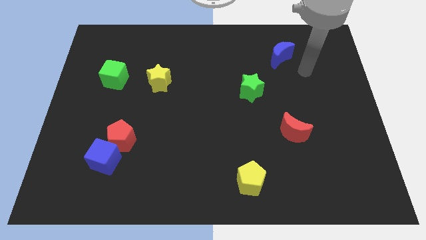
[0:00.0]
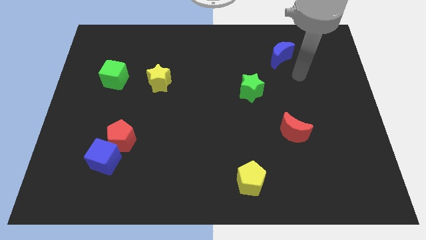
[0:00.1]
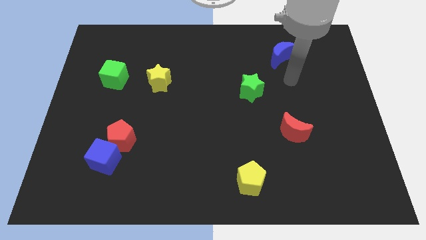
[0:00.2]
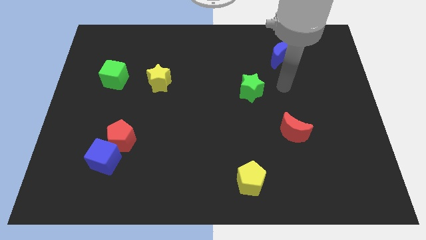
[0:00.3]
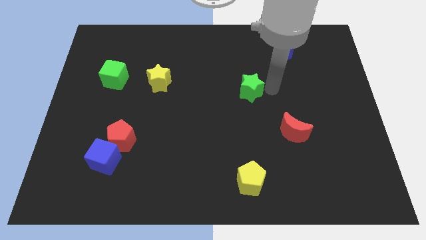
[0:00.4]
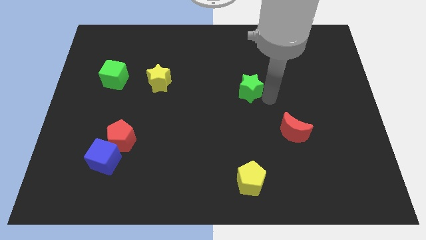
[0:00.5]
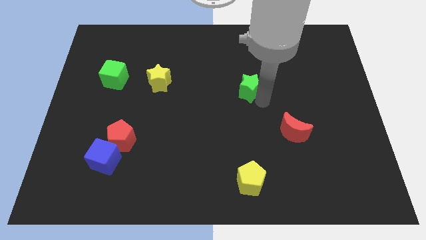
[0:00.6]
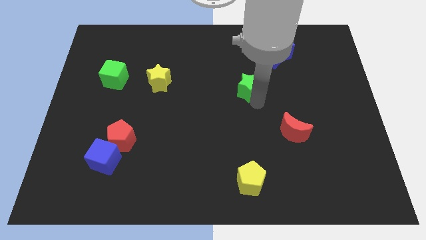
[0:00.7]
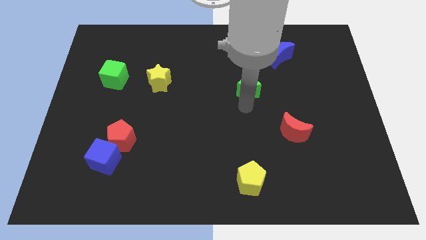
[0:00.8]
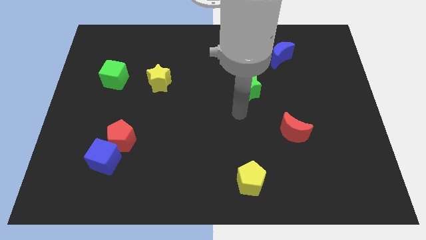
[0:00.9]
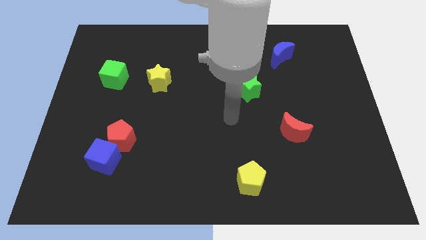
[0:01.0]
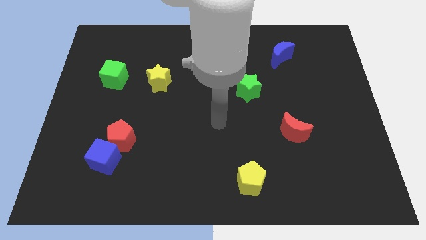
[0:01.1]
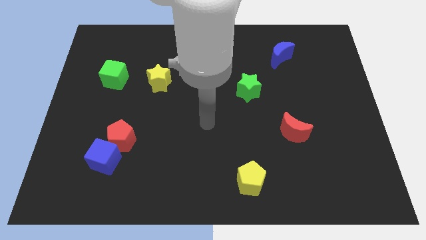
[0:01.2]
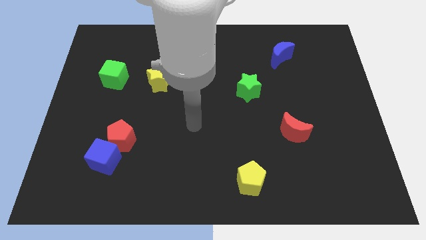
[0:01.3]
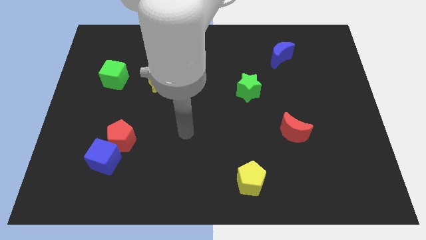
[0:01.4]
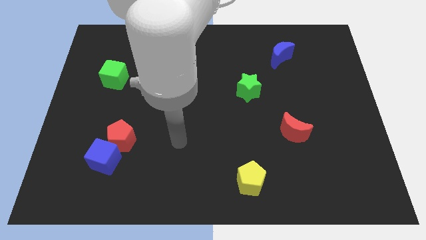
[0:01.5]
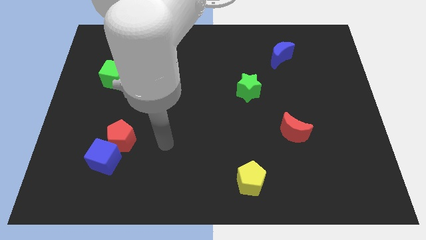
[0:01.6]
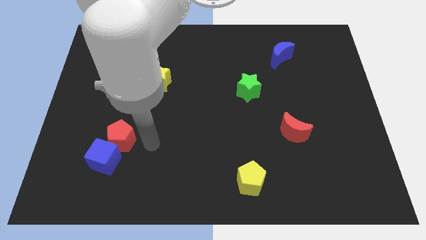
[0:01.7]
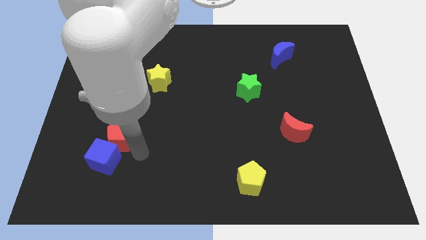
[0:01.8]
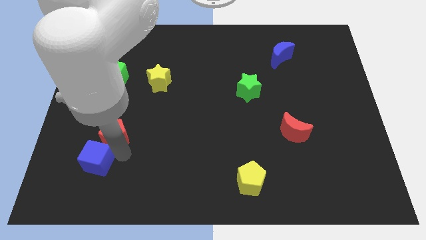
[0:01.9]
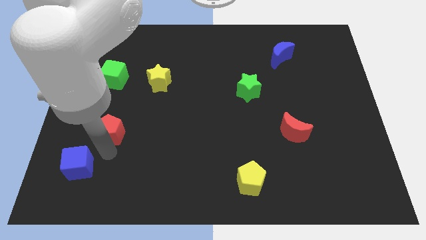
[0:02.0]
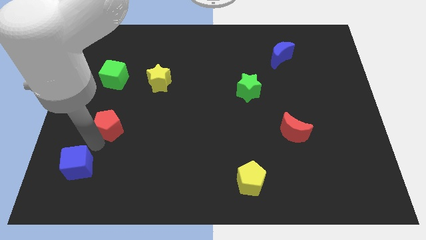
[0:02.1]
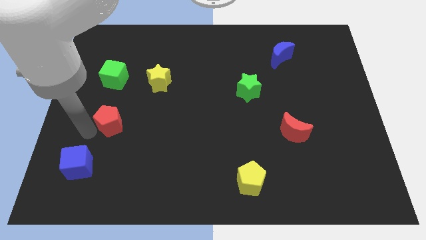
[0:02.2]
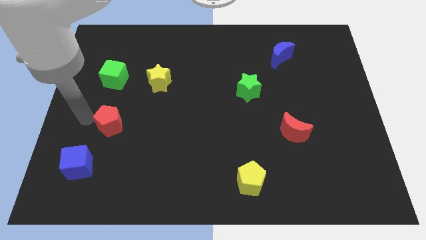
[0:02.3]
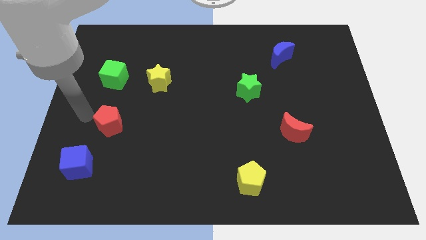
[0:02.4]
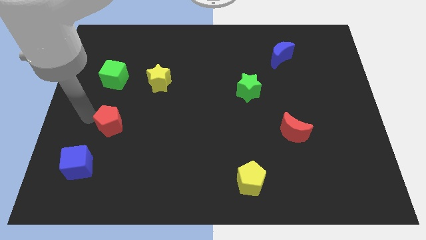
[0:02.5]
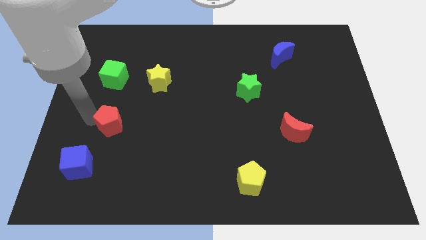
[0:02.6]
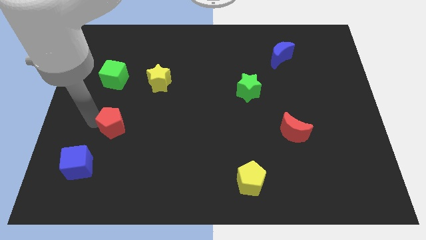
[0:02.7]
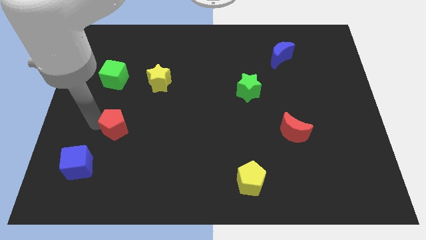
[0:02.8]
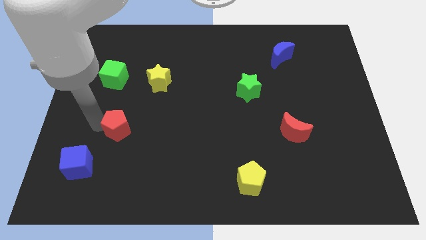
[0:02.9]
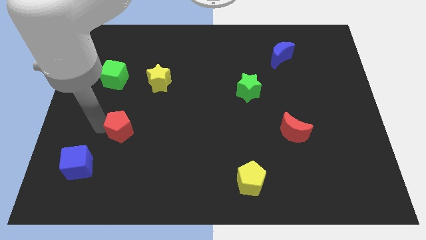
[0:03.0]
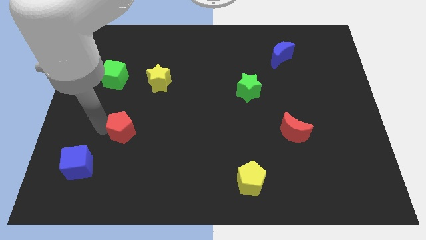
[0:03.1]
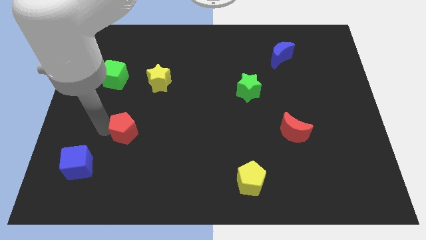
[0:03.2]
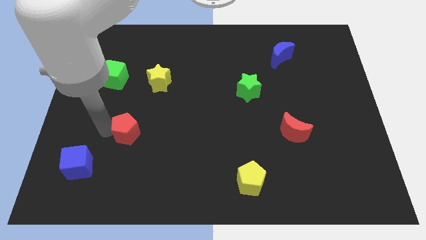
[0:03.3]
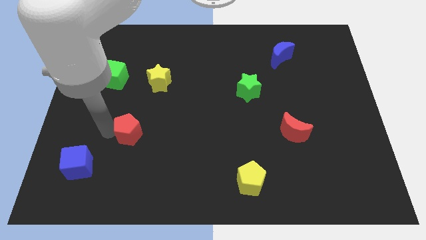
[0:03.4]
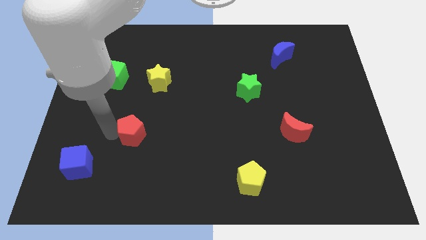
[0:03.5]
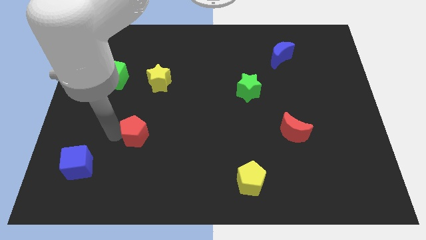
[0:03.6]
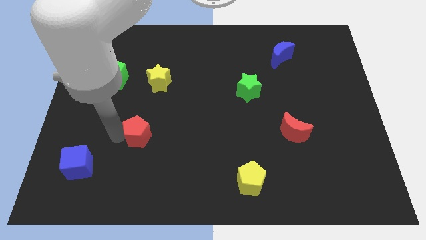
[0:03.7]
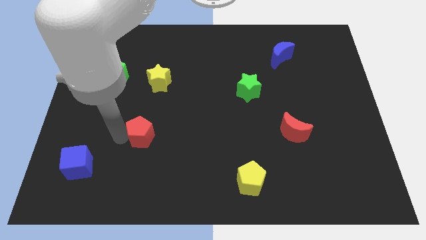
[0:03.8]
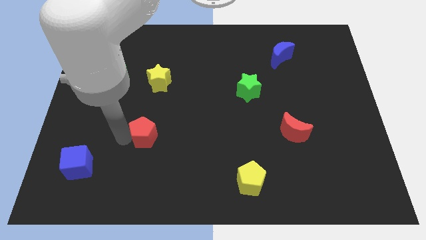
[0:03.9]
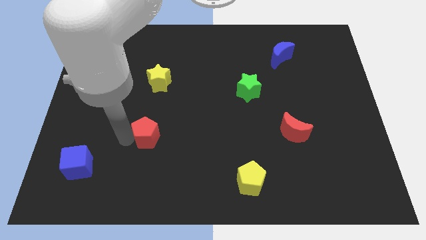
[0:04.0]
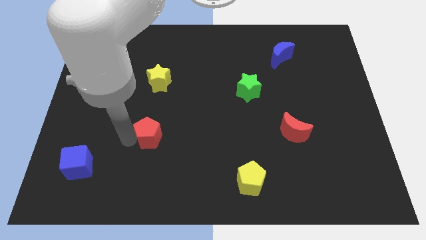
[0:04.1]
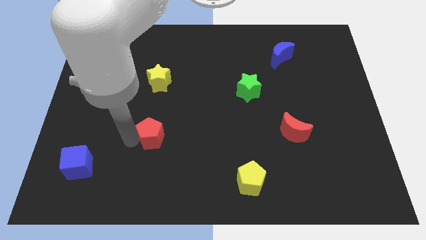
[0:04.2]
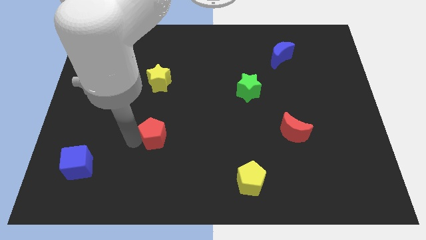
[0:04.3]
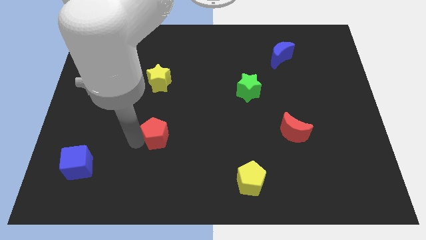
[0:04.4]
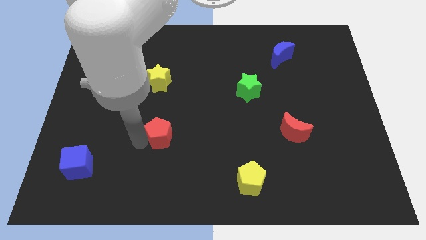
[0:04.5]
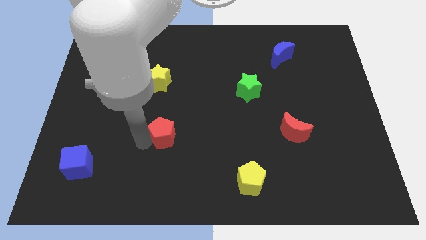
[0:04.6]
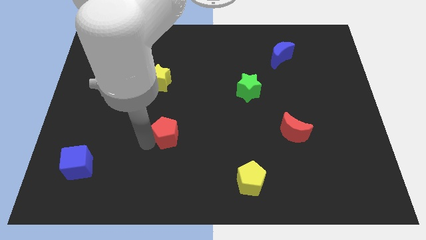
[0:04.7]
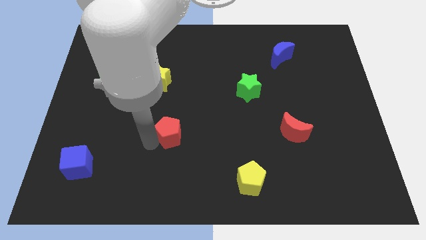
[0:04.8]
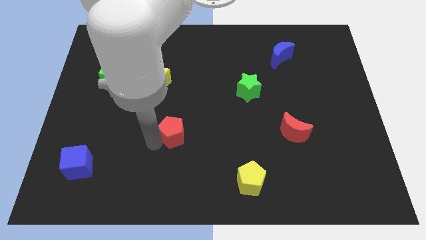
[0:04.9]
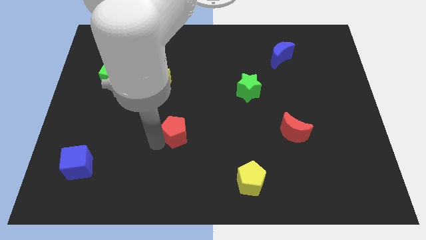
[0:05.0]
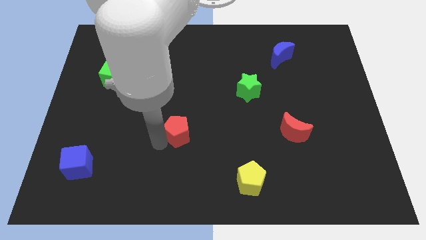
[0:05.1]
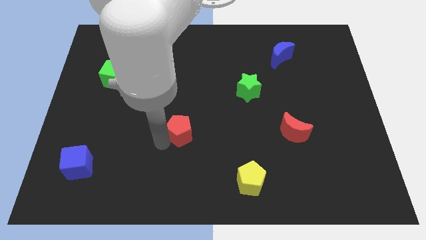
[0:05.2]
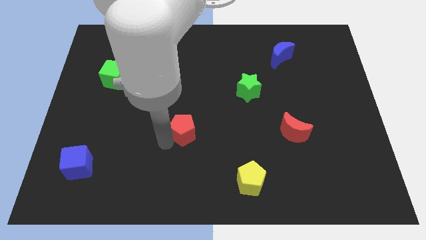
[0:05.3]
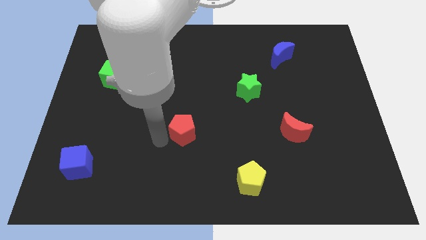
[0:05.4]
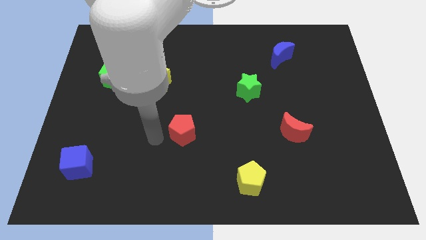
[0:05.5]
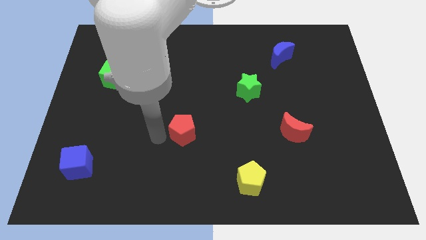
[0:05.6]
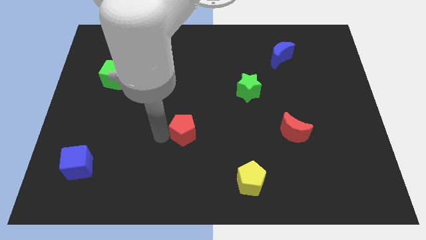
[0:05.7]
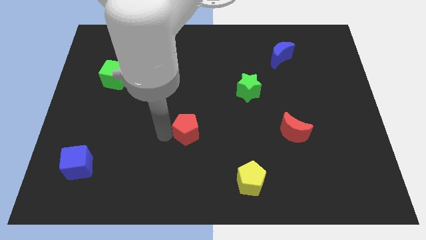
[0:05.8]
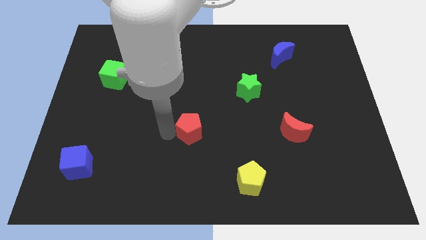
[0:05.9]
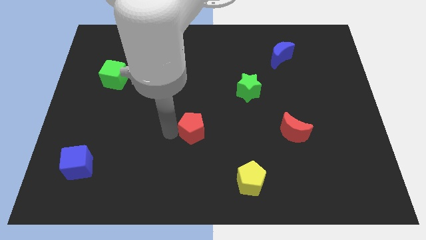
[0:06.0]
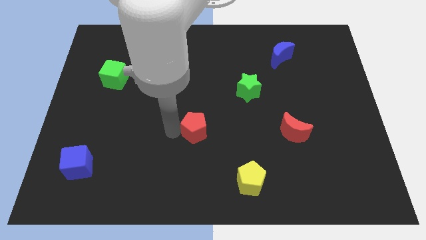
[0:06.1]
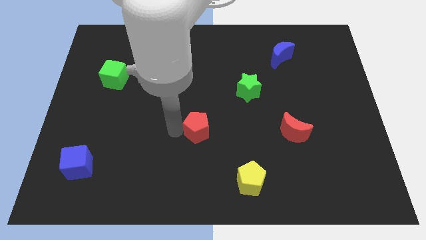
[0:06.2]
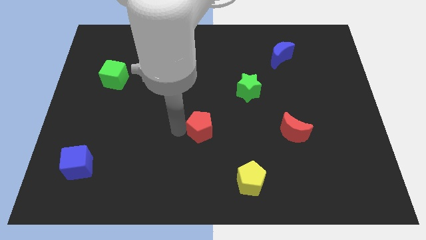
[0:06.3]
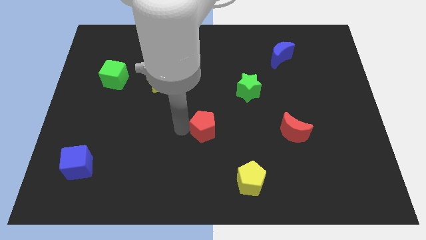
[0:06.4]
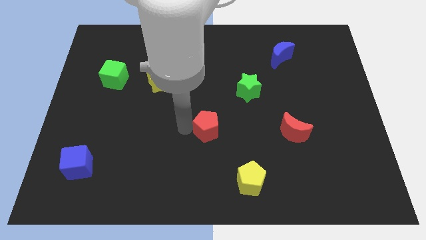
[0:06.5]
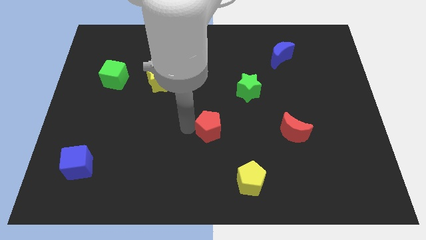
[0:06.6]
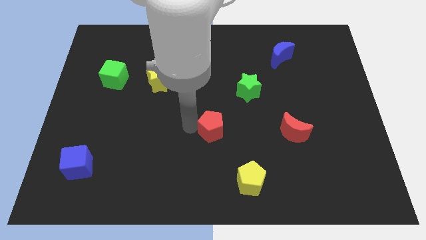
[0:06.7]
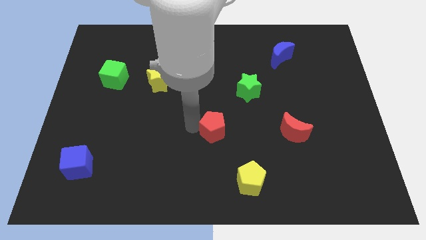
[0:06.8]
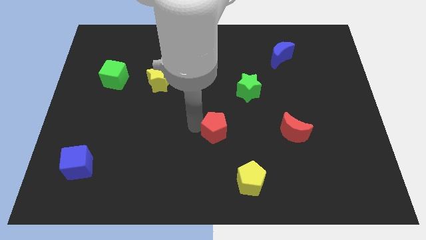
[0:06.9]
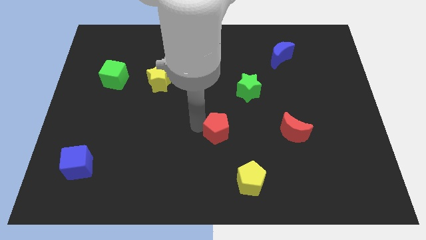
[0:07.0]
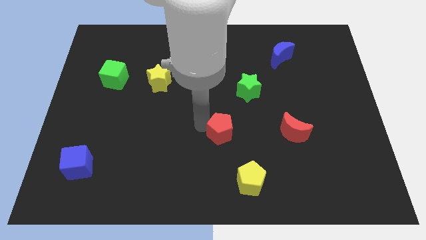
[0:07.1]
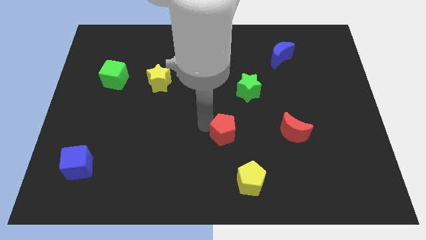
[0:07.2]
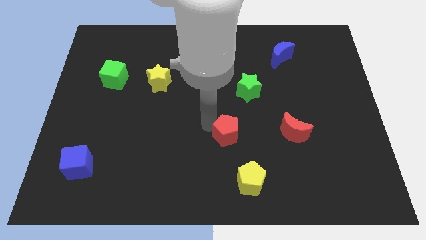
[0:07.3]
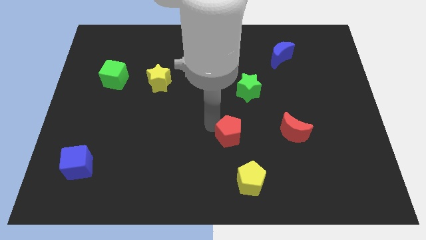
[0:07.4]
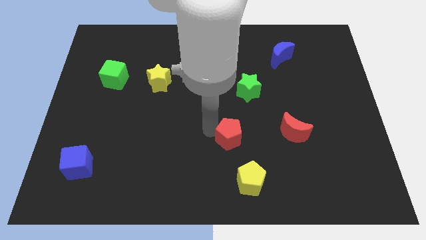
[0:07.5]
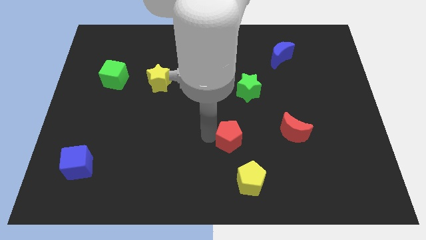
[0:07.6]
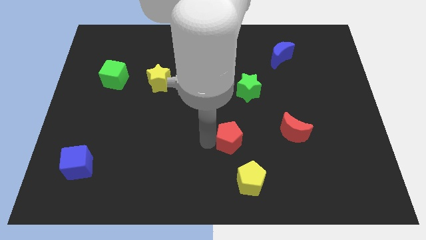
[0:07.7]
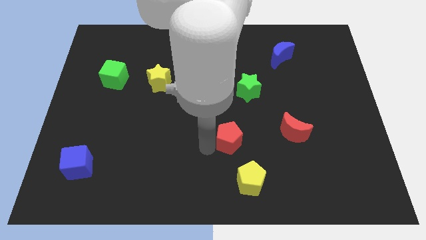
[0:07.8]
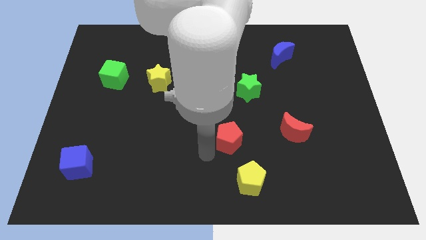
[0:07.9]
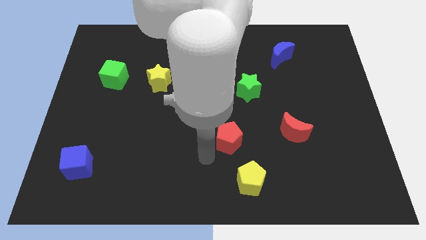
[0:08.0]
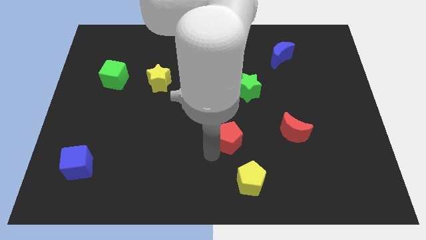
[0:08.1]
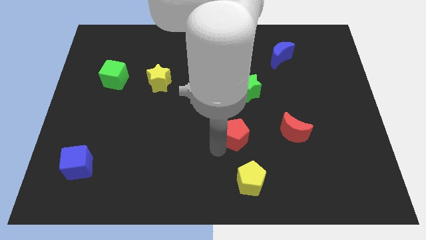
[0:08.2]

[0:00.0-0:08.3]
put the red pentagon to the bottom side of the green star
